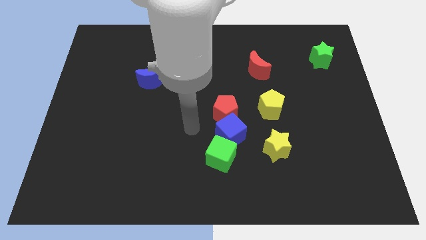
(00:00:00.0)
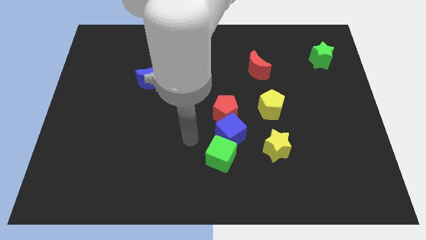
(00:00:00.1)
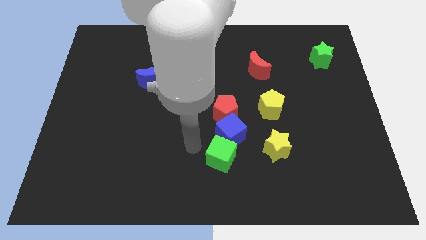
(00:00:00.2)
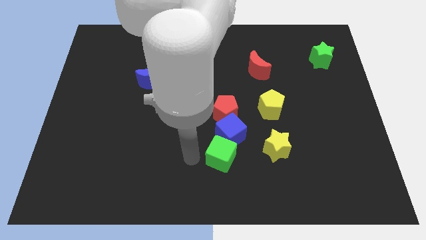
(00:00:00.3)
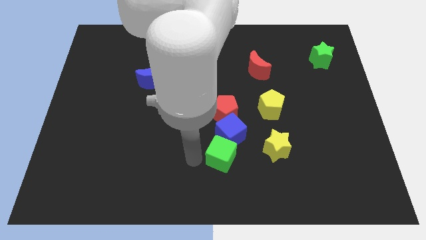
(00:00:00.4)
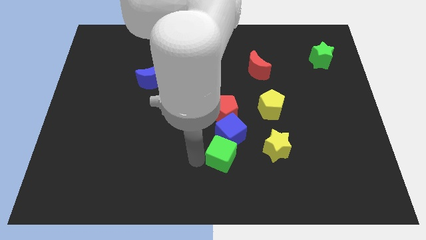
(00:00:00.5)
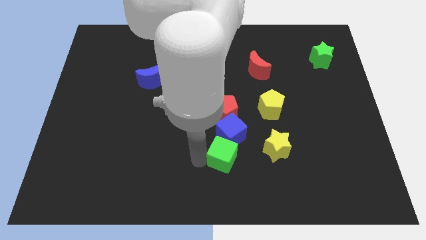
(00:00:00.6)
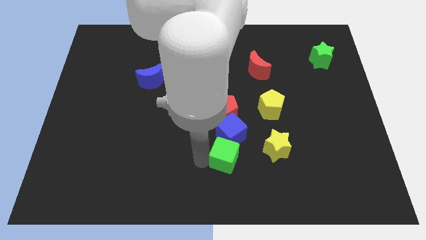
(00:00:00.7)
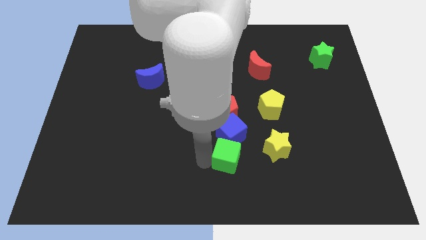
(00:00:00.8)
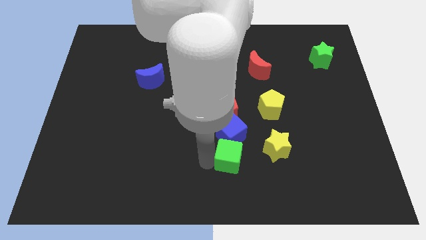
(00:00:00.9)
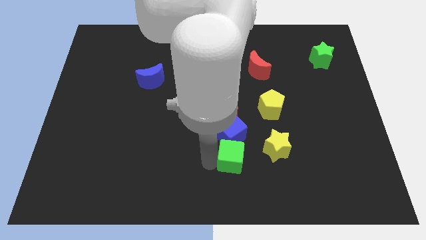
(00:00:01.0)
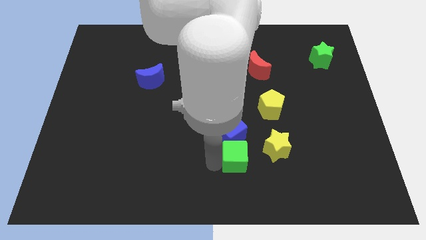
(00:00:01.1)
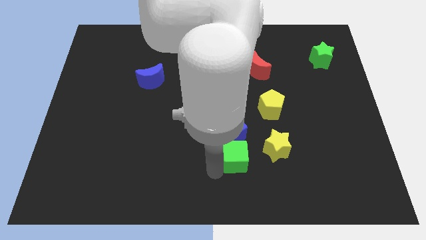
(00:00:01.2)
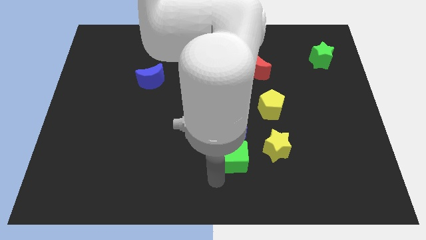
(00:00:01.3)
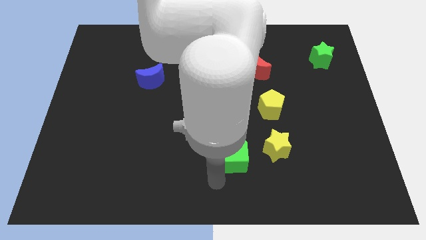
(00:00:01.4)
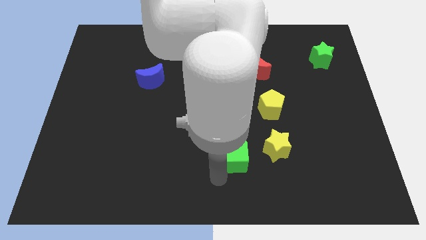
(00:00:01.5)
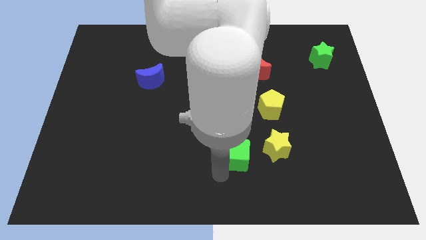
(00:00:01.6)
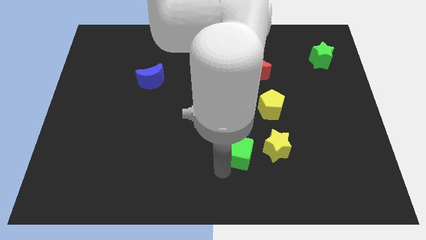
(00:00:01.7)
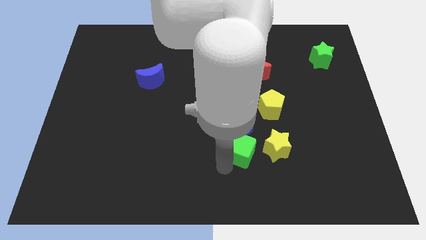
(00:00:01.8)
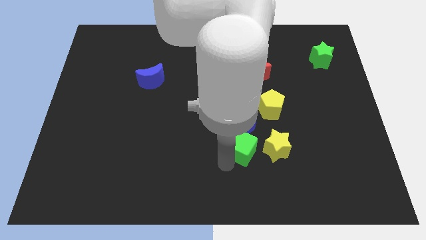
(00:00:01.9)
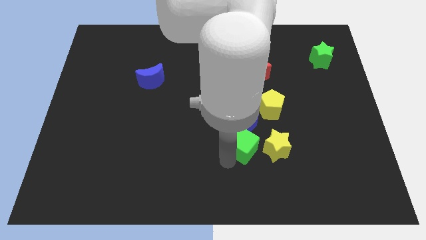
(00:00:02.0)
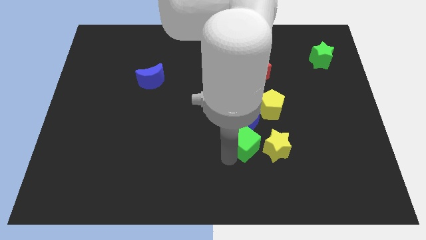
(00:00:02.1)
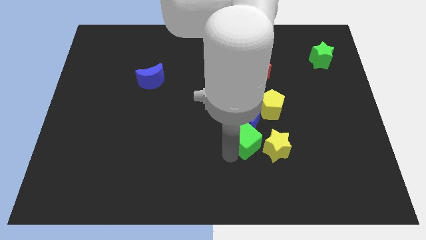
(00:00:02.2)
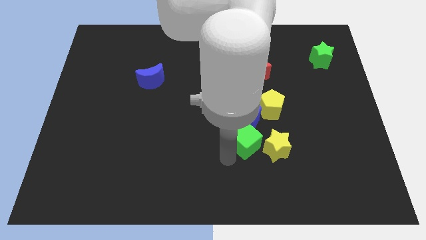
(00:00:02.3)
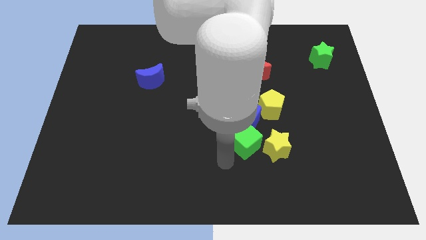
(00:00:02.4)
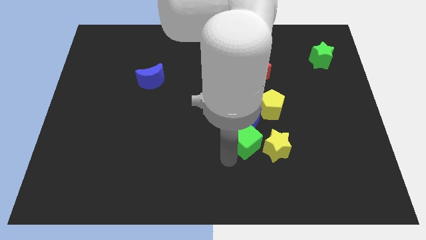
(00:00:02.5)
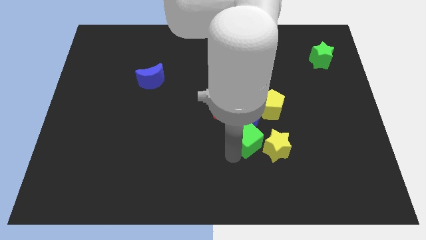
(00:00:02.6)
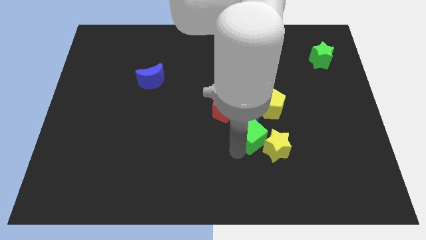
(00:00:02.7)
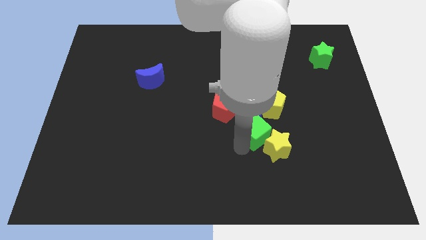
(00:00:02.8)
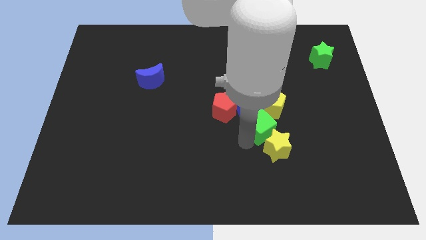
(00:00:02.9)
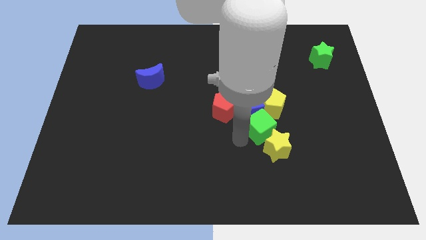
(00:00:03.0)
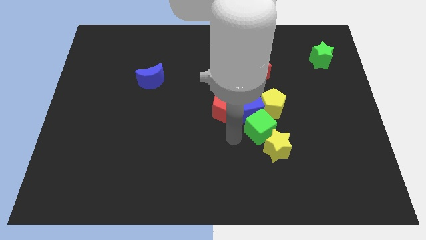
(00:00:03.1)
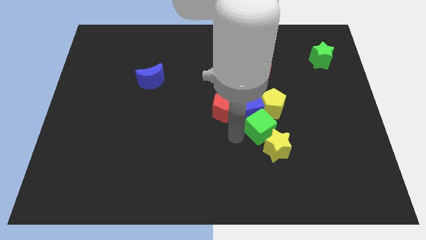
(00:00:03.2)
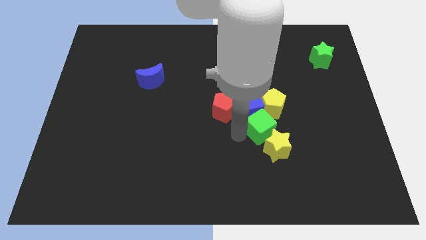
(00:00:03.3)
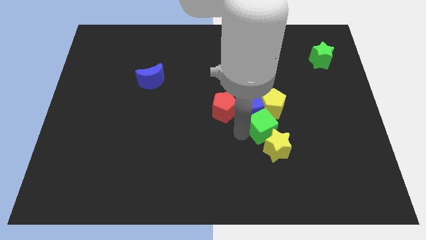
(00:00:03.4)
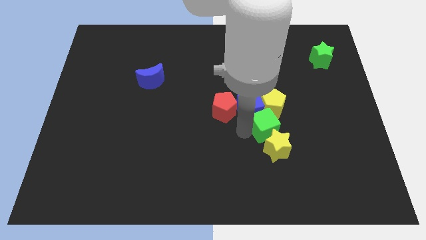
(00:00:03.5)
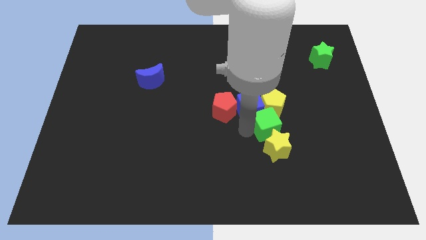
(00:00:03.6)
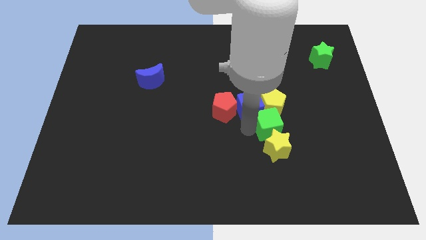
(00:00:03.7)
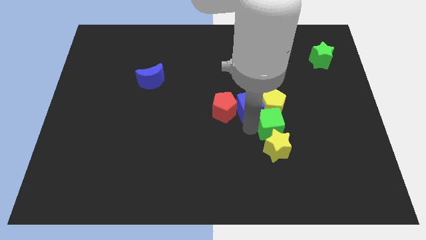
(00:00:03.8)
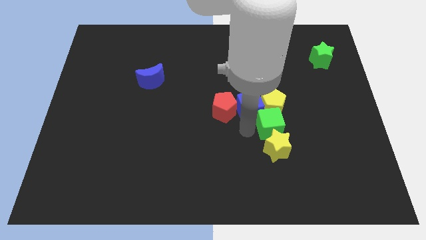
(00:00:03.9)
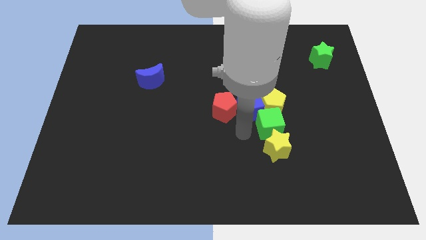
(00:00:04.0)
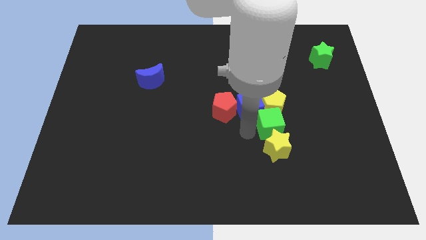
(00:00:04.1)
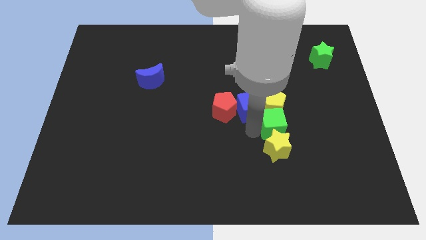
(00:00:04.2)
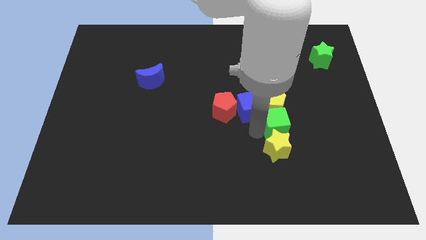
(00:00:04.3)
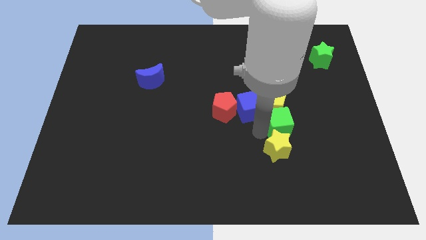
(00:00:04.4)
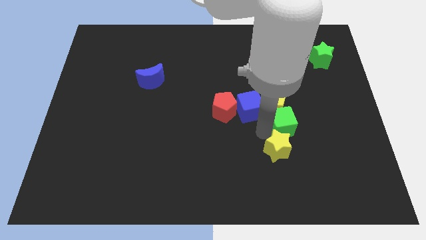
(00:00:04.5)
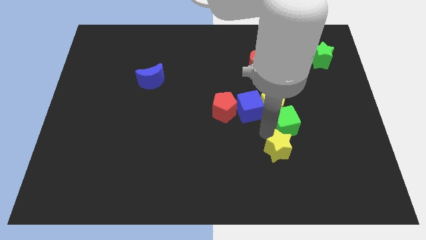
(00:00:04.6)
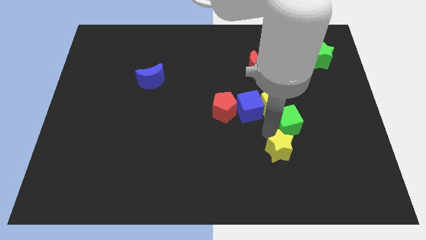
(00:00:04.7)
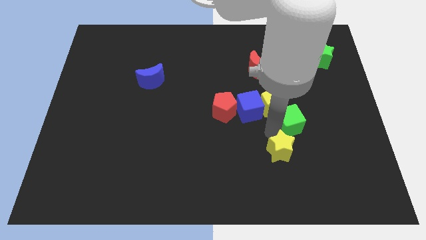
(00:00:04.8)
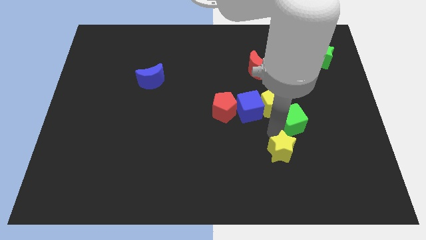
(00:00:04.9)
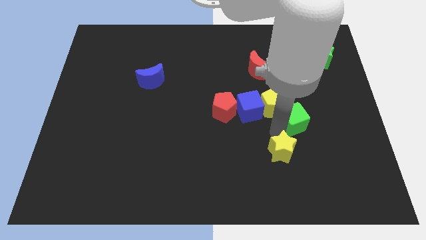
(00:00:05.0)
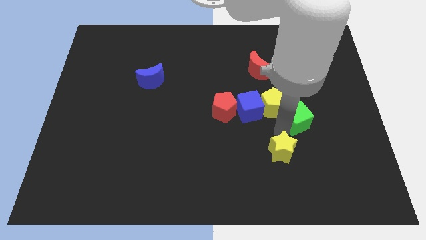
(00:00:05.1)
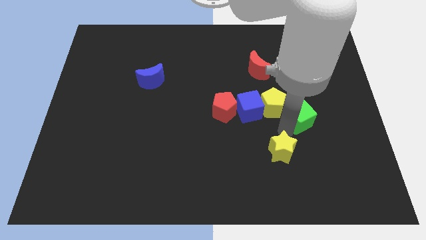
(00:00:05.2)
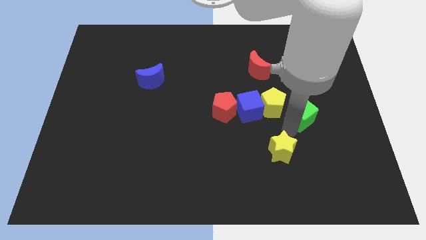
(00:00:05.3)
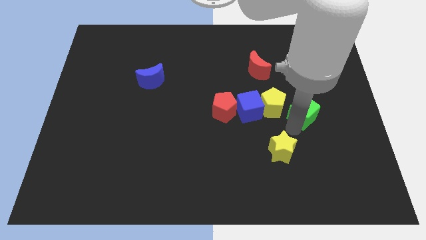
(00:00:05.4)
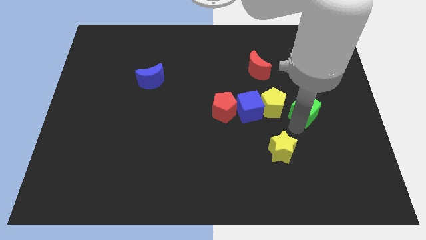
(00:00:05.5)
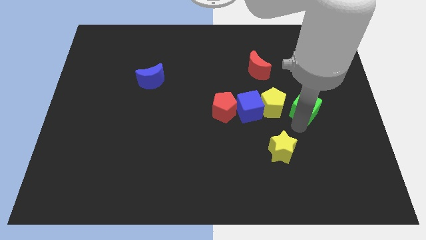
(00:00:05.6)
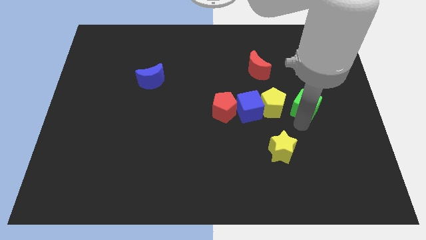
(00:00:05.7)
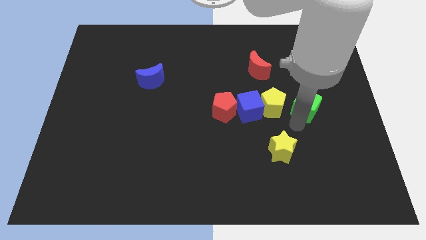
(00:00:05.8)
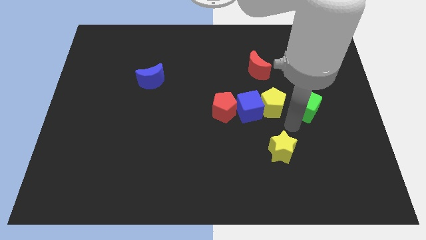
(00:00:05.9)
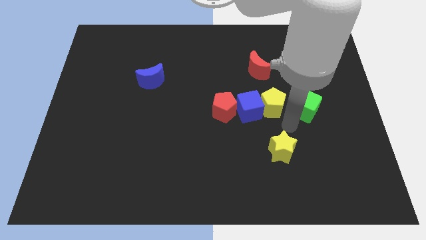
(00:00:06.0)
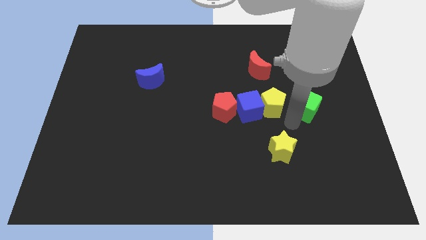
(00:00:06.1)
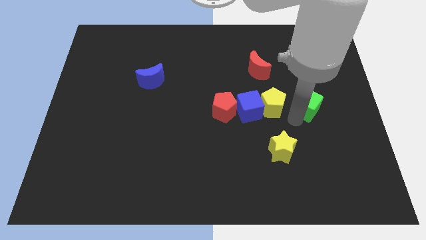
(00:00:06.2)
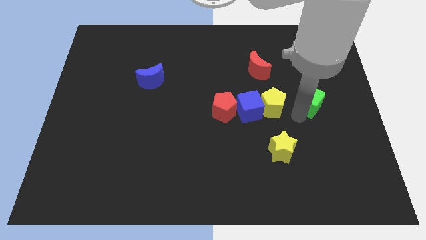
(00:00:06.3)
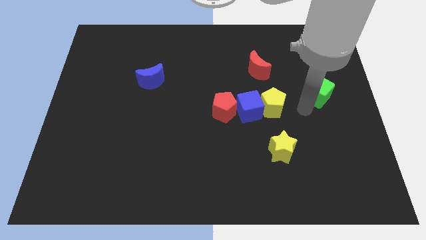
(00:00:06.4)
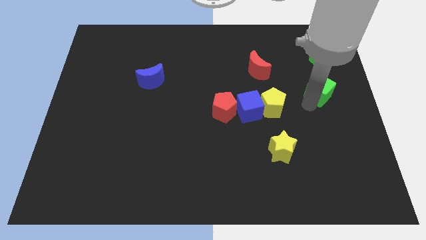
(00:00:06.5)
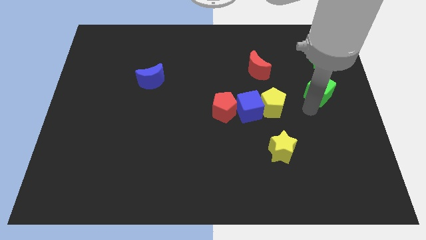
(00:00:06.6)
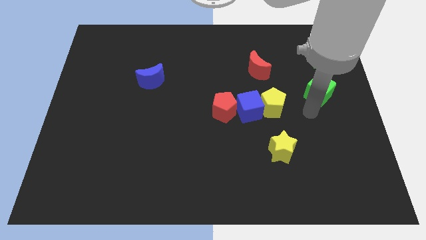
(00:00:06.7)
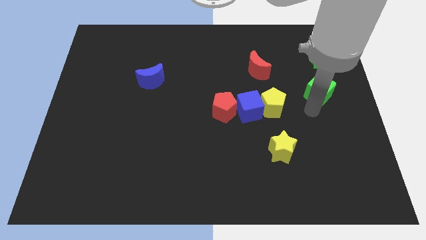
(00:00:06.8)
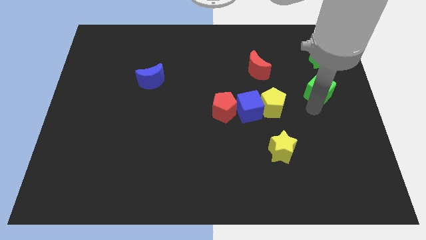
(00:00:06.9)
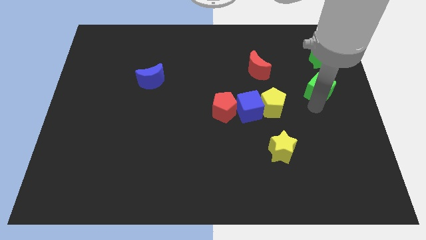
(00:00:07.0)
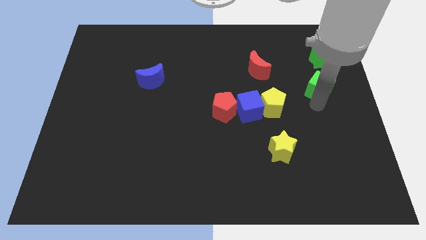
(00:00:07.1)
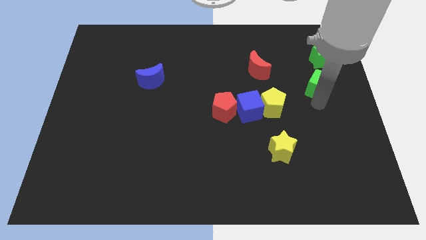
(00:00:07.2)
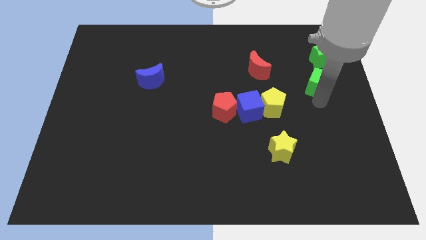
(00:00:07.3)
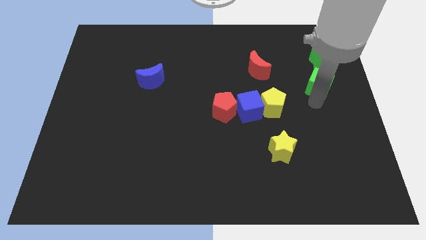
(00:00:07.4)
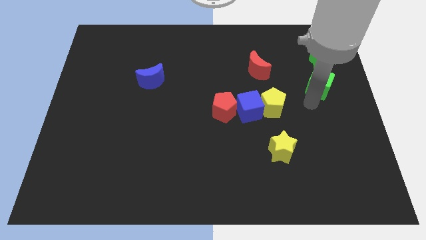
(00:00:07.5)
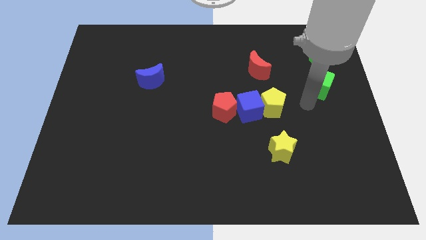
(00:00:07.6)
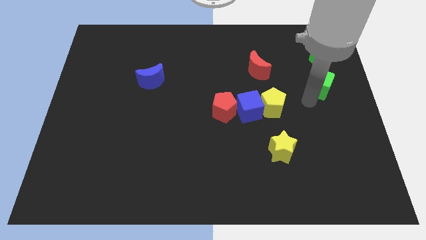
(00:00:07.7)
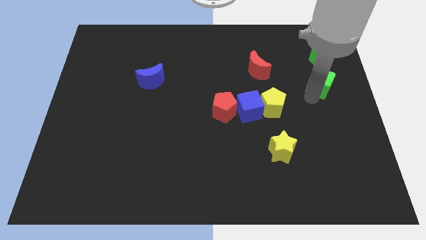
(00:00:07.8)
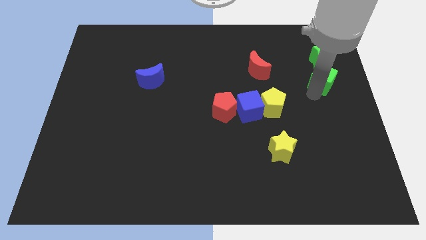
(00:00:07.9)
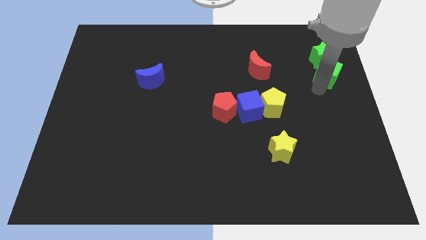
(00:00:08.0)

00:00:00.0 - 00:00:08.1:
push the green cube next to the green star
